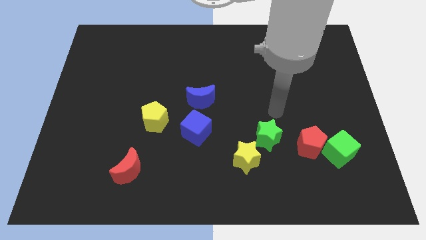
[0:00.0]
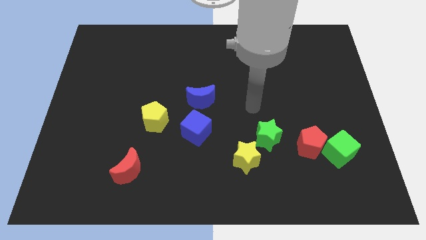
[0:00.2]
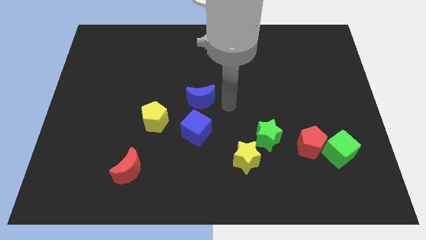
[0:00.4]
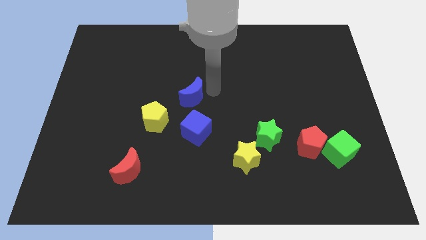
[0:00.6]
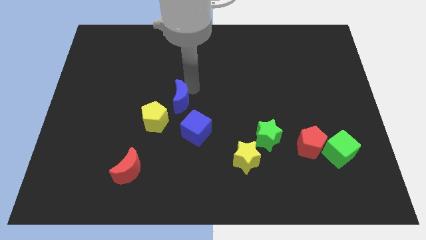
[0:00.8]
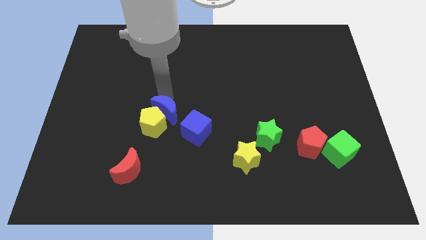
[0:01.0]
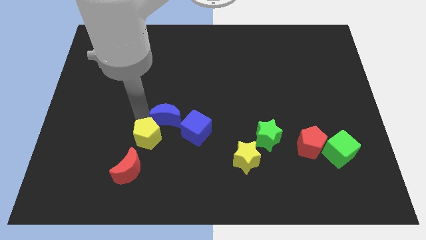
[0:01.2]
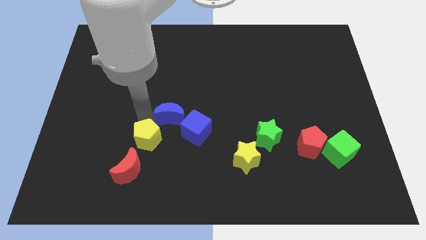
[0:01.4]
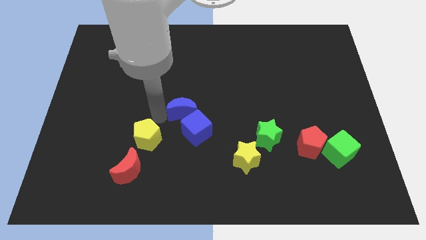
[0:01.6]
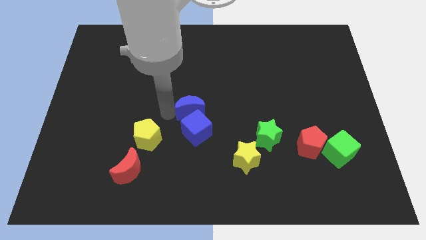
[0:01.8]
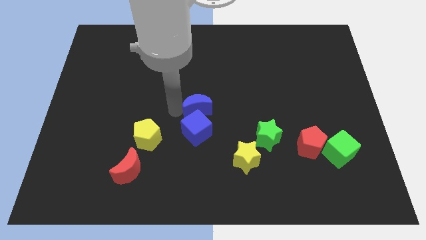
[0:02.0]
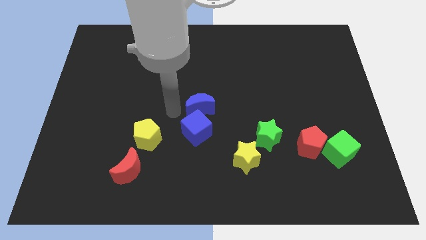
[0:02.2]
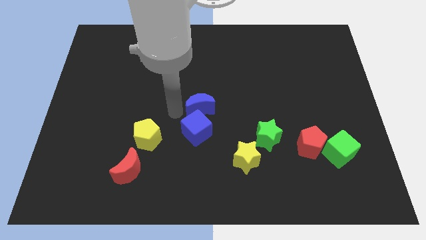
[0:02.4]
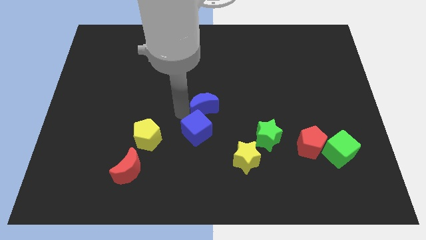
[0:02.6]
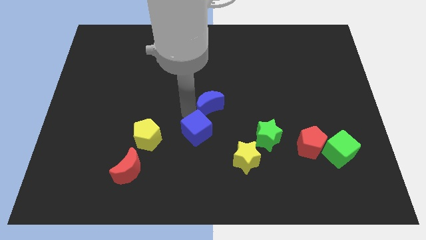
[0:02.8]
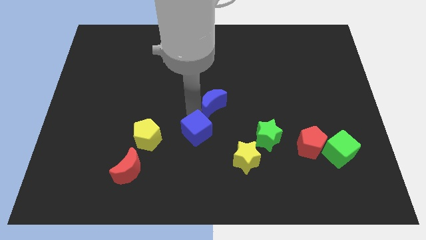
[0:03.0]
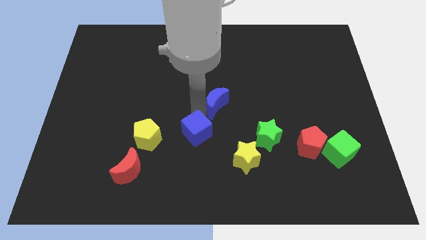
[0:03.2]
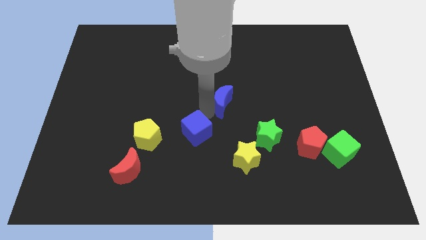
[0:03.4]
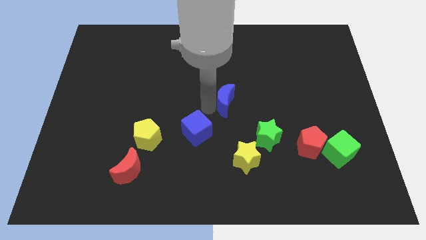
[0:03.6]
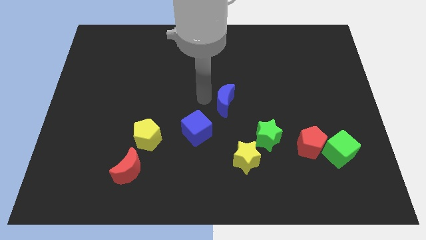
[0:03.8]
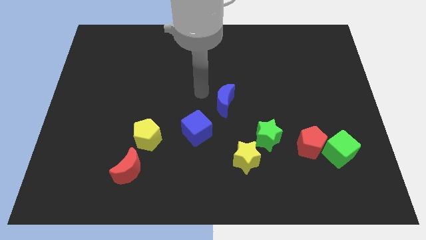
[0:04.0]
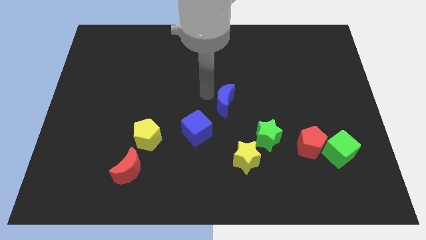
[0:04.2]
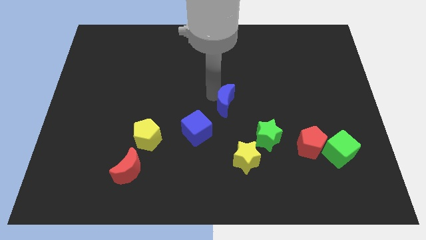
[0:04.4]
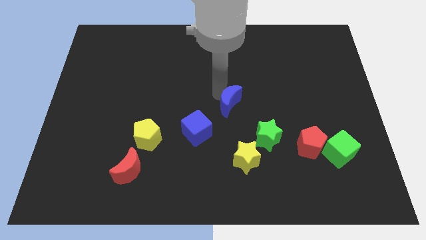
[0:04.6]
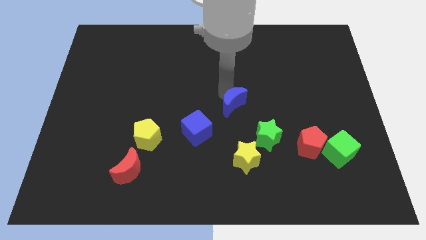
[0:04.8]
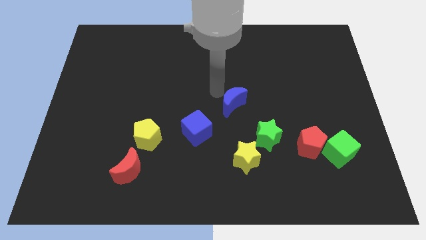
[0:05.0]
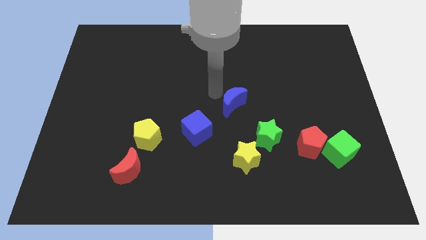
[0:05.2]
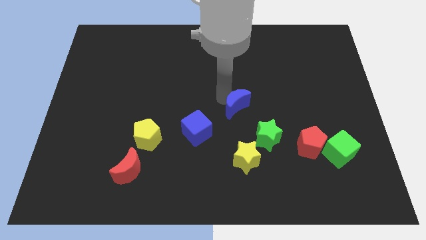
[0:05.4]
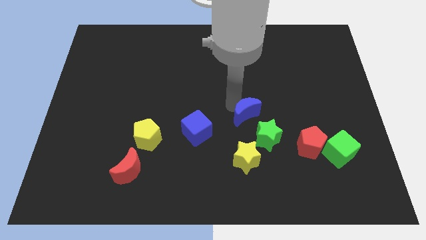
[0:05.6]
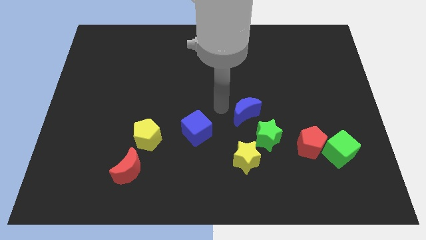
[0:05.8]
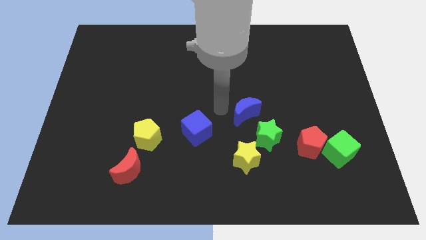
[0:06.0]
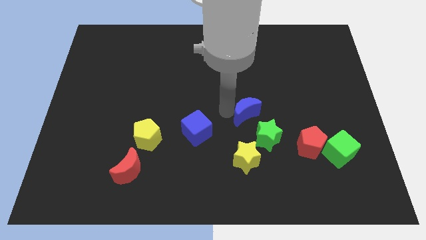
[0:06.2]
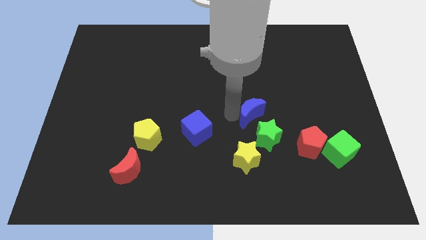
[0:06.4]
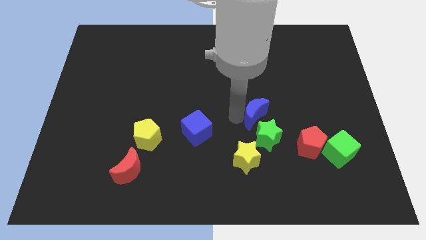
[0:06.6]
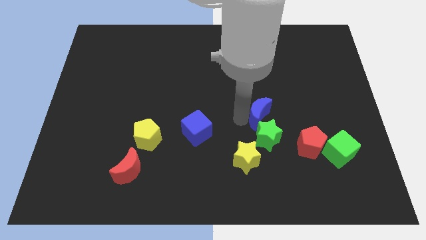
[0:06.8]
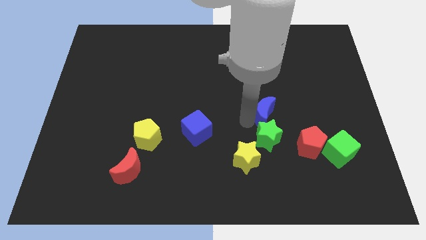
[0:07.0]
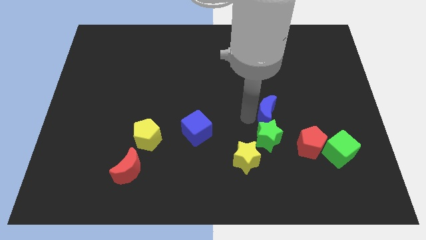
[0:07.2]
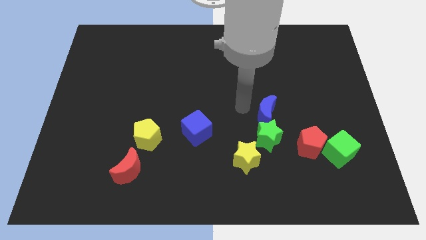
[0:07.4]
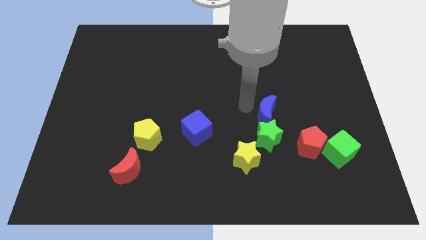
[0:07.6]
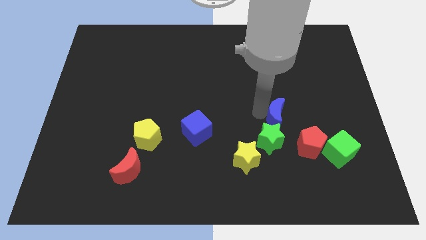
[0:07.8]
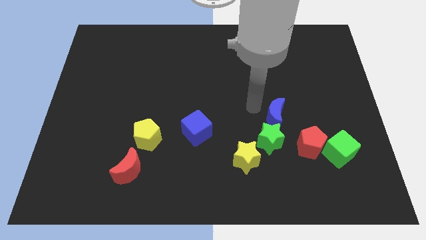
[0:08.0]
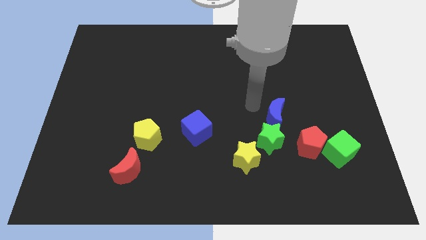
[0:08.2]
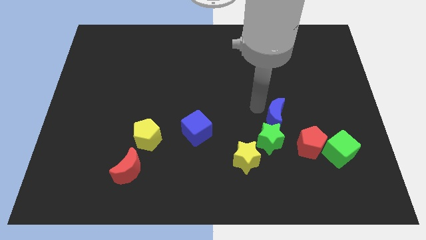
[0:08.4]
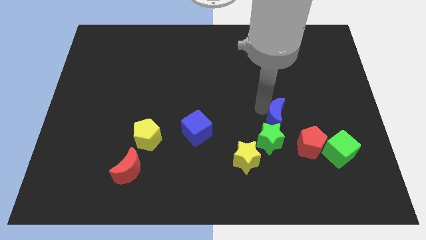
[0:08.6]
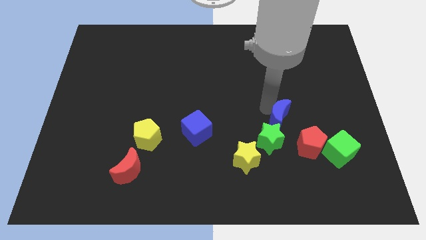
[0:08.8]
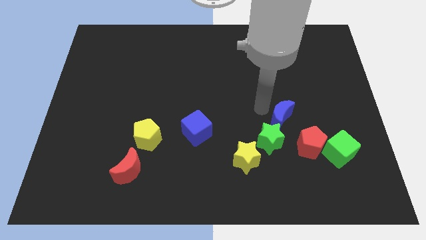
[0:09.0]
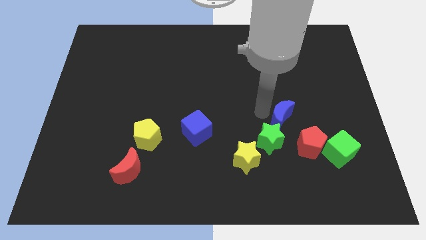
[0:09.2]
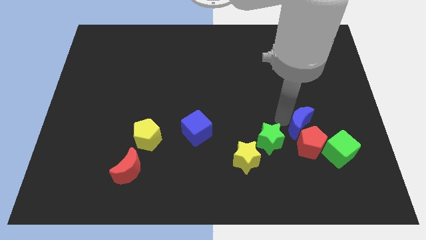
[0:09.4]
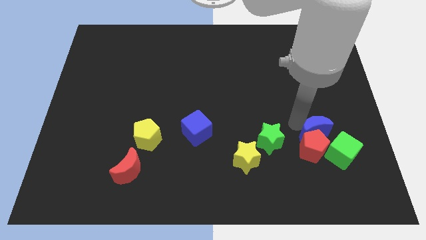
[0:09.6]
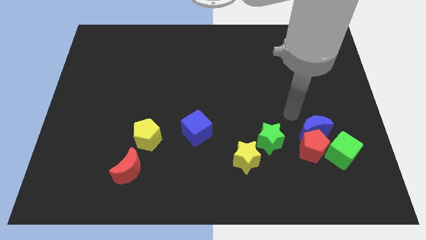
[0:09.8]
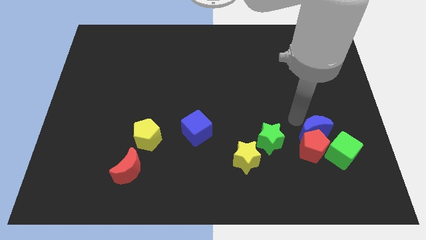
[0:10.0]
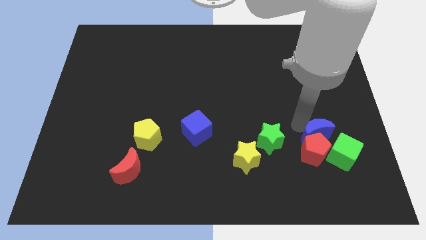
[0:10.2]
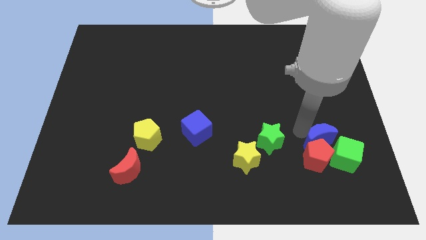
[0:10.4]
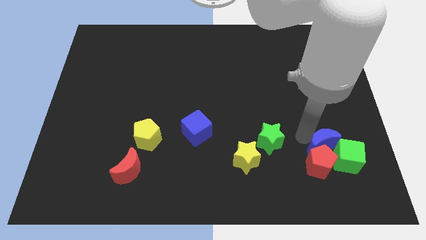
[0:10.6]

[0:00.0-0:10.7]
put the blue moon next to the green cube

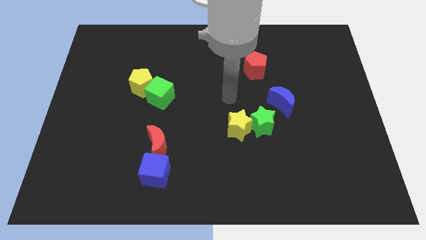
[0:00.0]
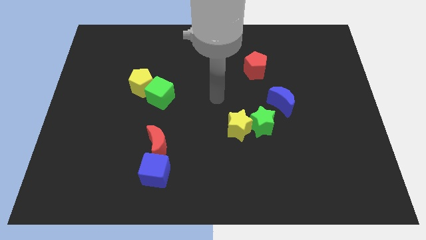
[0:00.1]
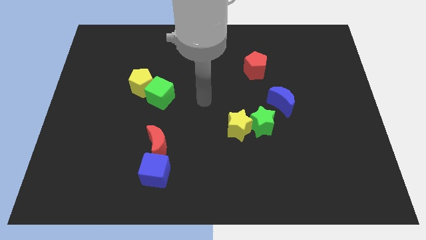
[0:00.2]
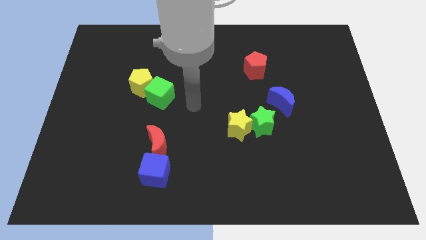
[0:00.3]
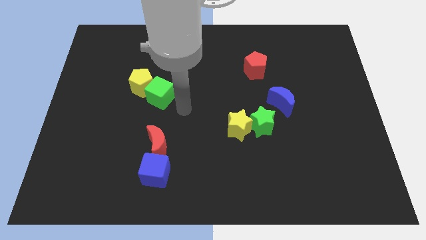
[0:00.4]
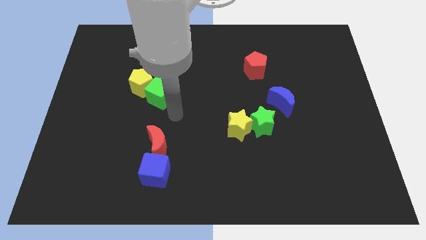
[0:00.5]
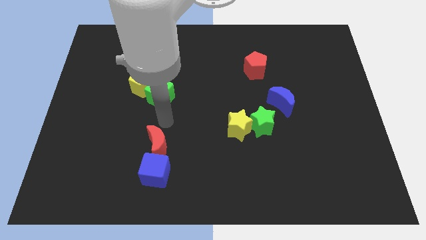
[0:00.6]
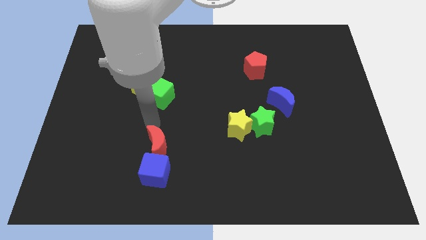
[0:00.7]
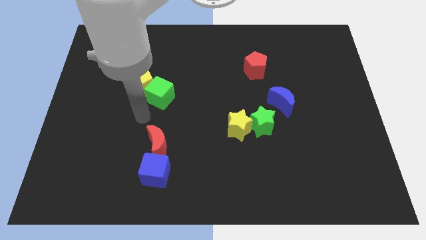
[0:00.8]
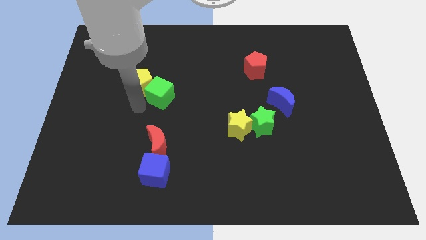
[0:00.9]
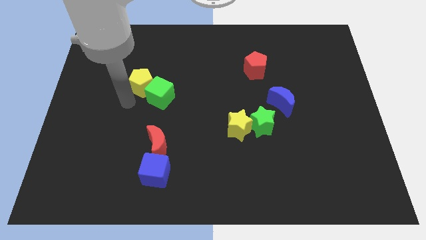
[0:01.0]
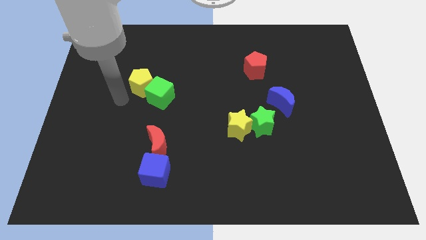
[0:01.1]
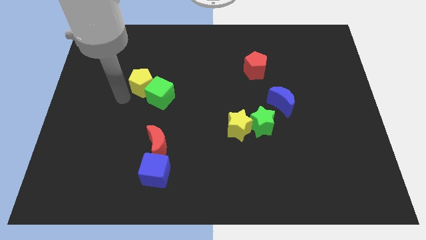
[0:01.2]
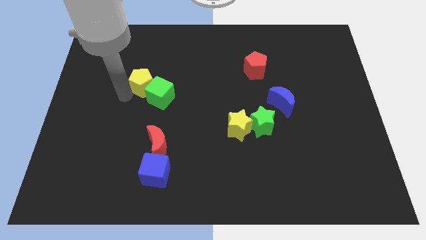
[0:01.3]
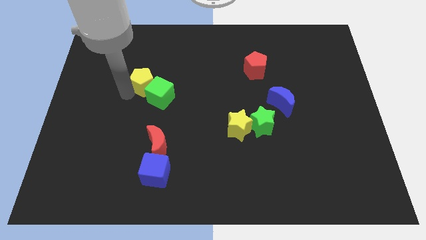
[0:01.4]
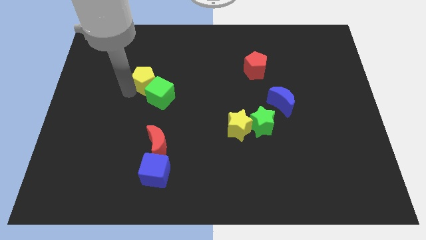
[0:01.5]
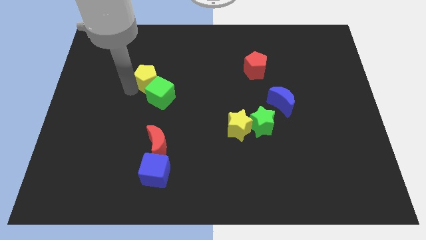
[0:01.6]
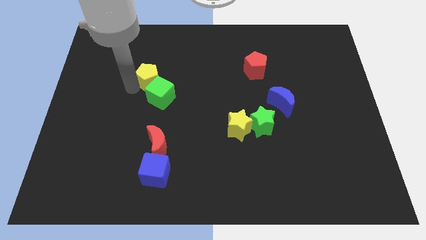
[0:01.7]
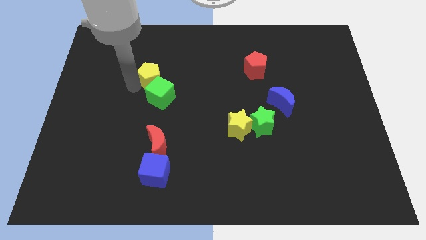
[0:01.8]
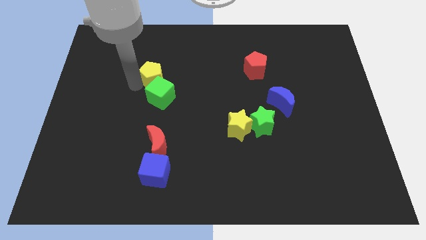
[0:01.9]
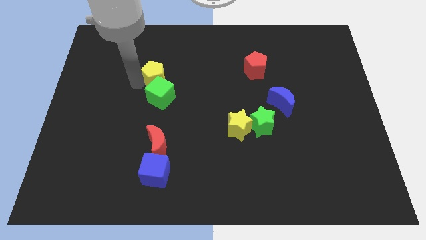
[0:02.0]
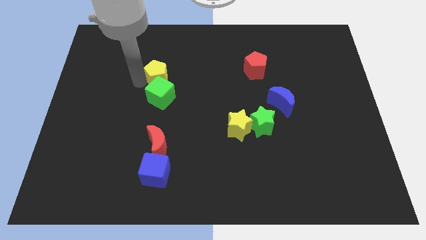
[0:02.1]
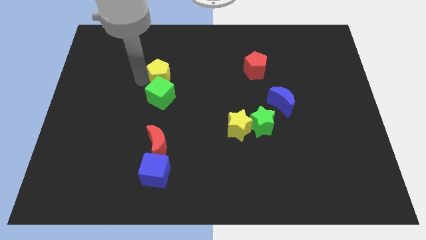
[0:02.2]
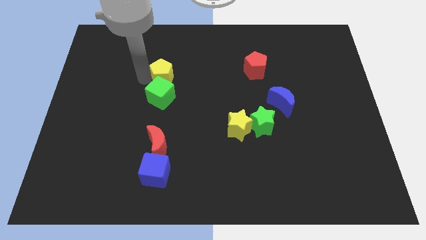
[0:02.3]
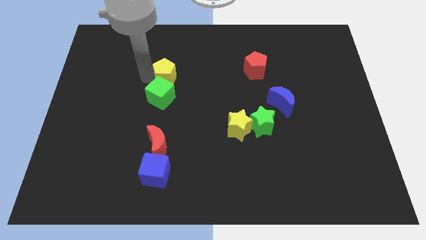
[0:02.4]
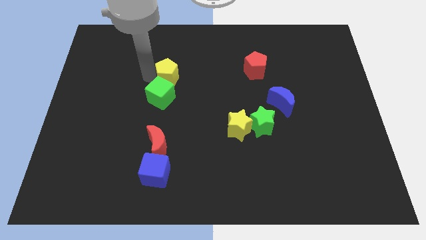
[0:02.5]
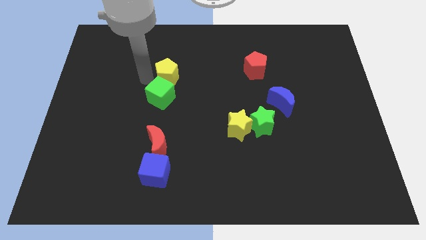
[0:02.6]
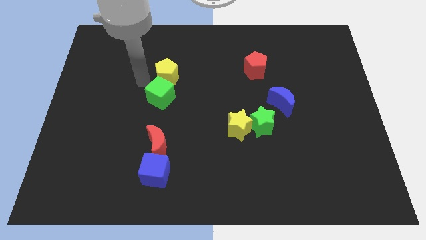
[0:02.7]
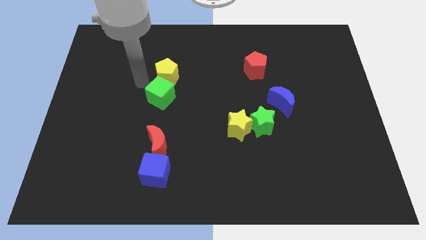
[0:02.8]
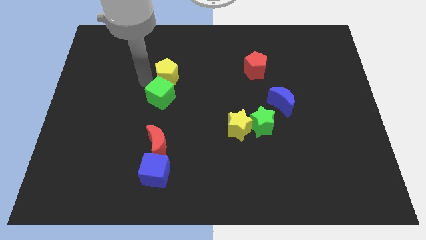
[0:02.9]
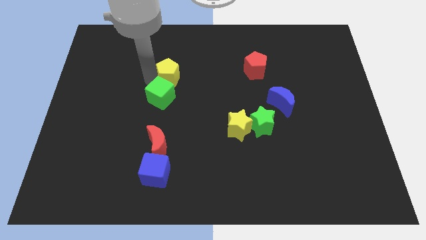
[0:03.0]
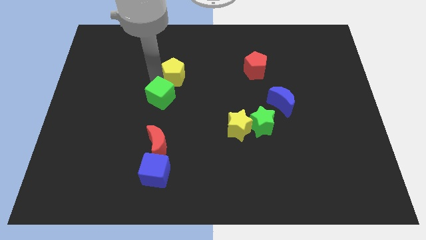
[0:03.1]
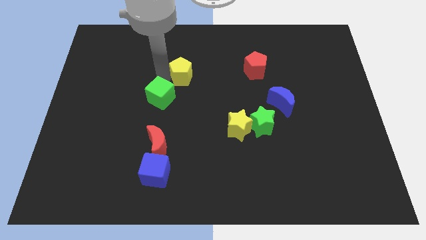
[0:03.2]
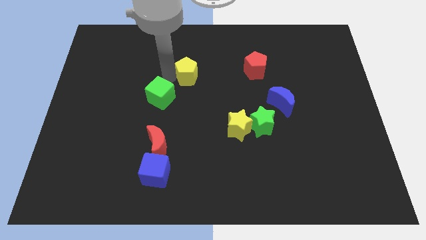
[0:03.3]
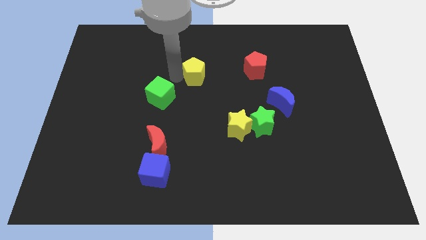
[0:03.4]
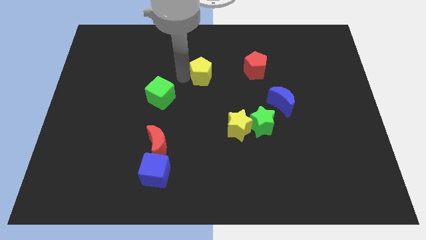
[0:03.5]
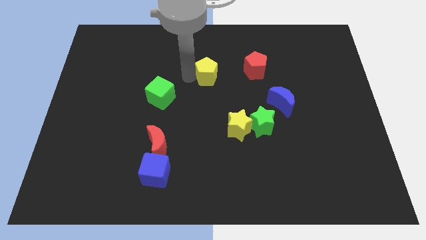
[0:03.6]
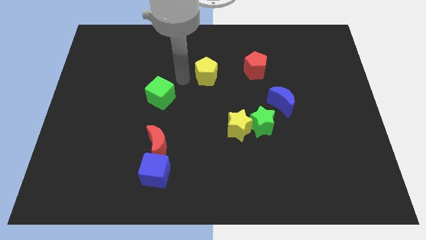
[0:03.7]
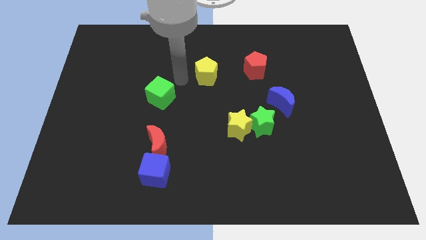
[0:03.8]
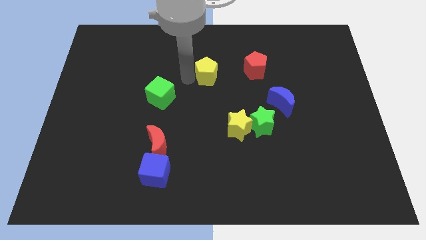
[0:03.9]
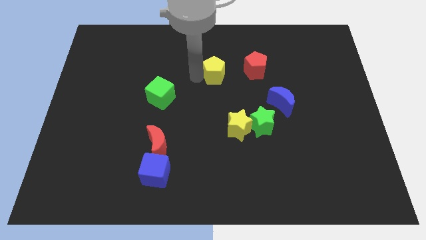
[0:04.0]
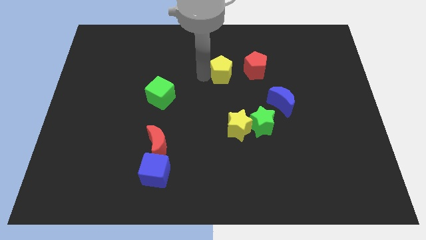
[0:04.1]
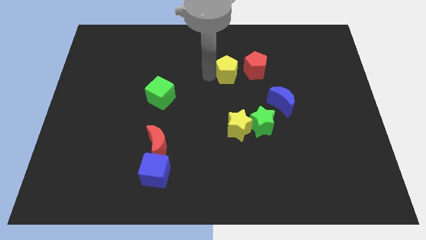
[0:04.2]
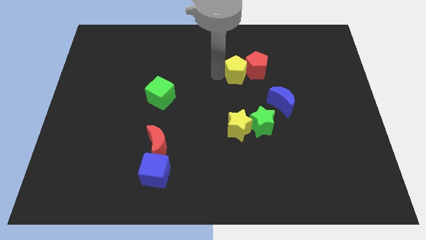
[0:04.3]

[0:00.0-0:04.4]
put the yellow pentagon next to the red pentagon
